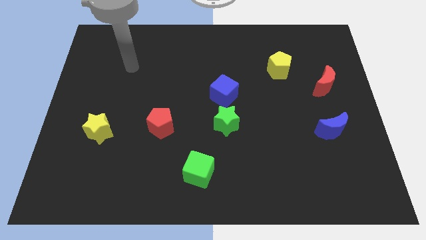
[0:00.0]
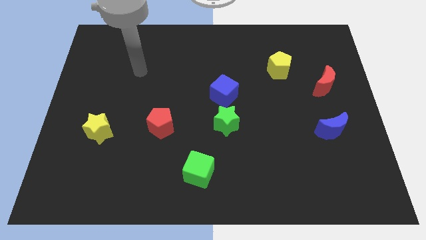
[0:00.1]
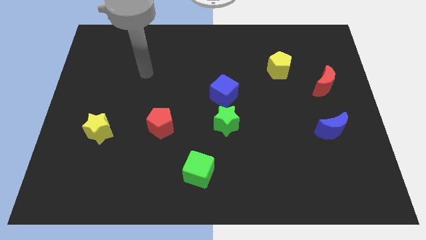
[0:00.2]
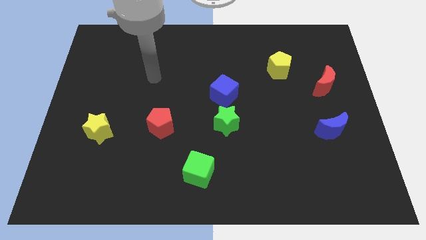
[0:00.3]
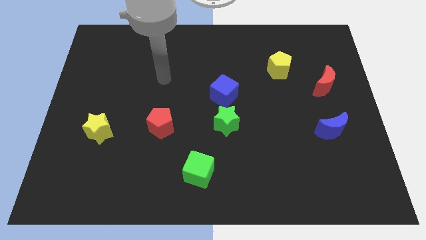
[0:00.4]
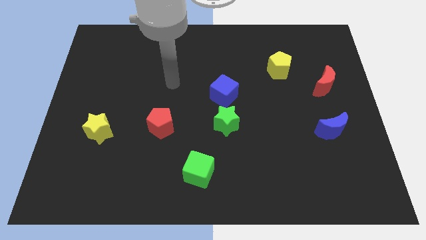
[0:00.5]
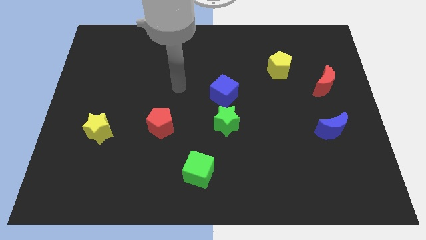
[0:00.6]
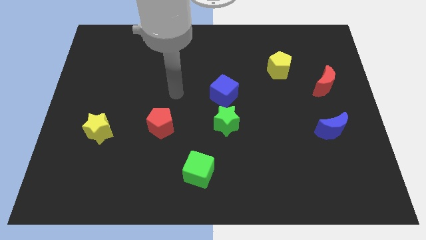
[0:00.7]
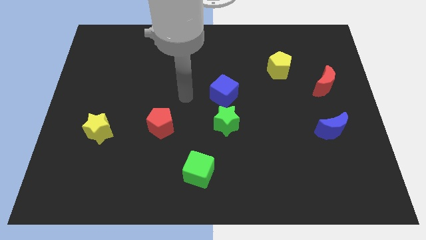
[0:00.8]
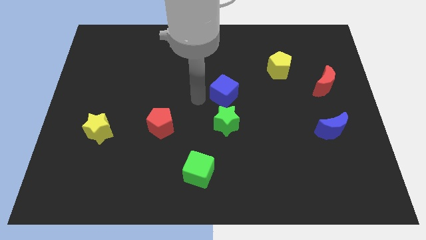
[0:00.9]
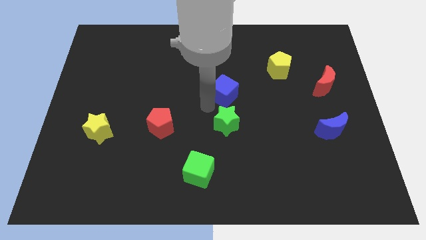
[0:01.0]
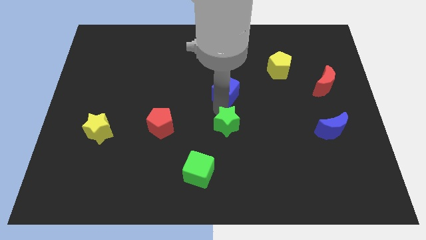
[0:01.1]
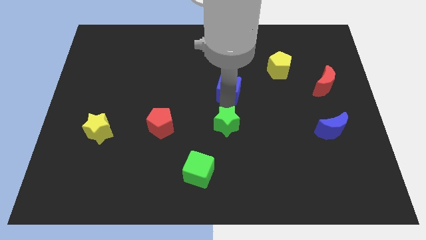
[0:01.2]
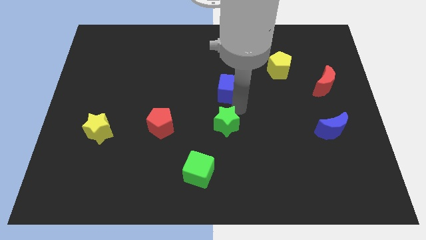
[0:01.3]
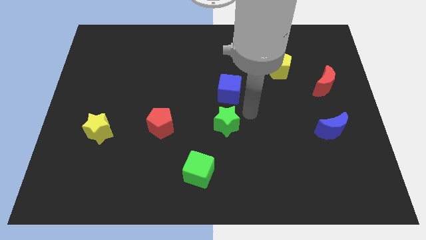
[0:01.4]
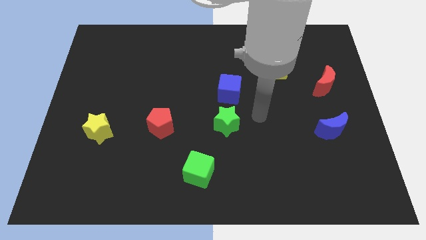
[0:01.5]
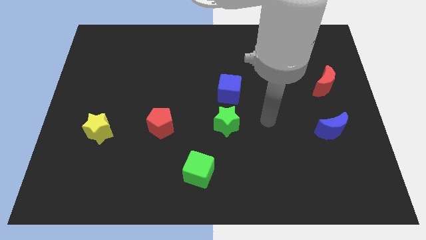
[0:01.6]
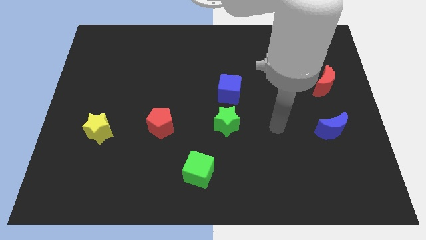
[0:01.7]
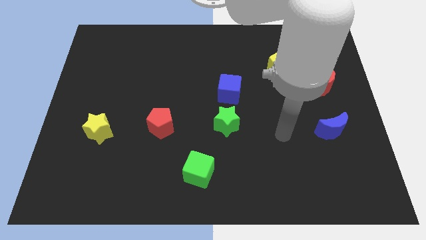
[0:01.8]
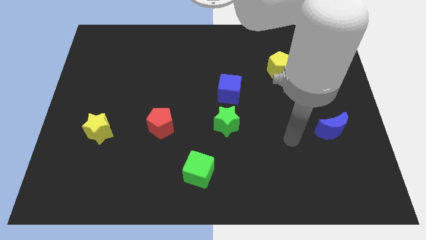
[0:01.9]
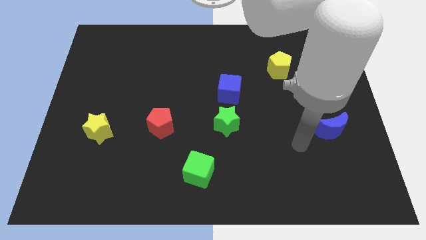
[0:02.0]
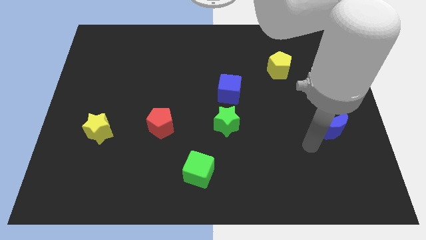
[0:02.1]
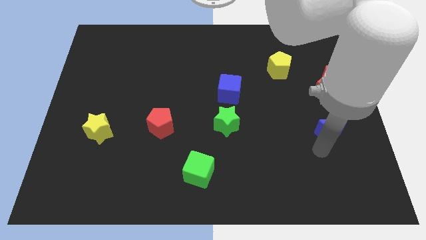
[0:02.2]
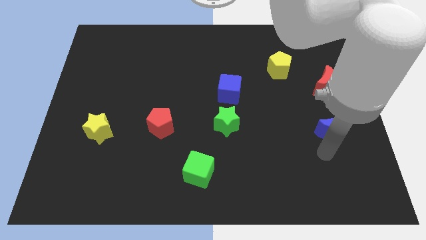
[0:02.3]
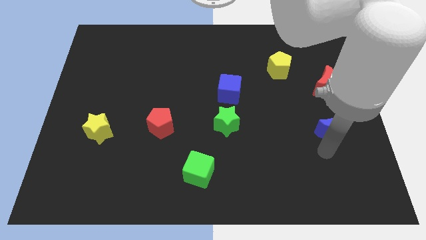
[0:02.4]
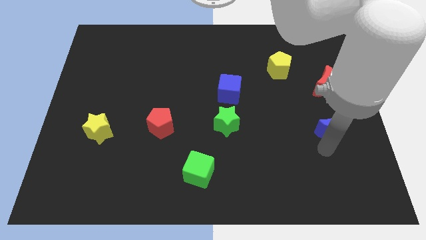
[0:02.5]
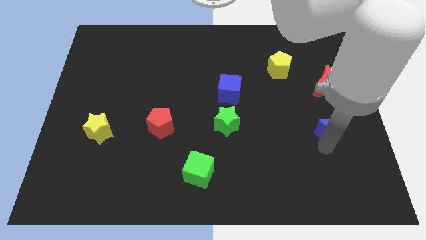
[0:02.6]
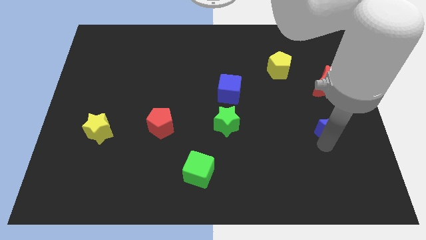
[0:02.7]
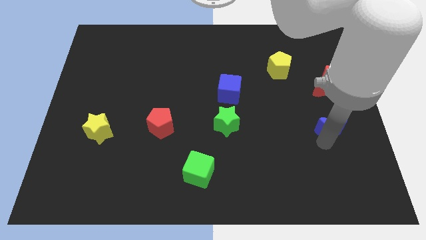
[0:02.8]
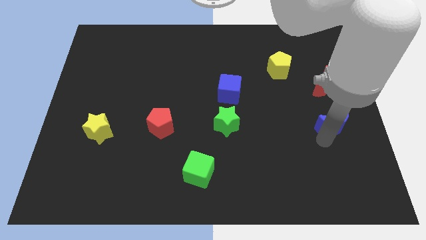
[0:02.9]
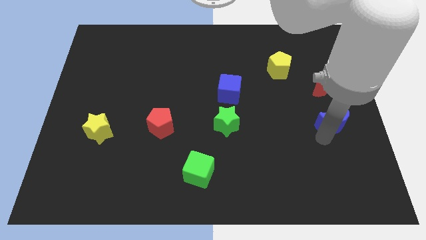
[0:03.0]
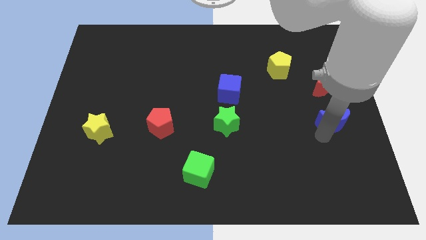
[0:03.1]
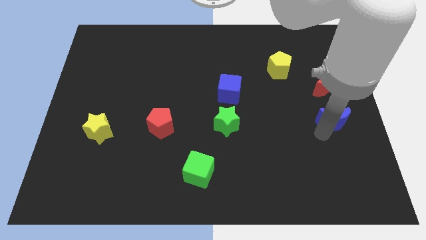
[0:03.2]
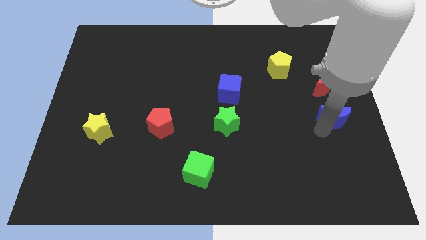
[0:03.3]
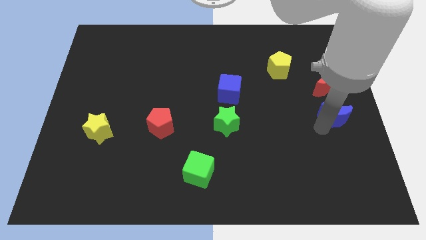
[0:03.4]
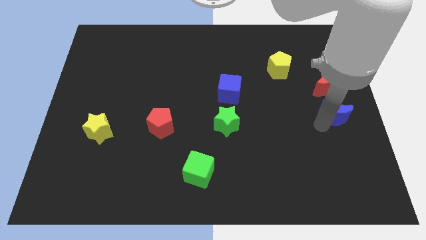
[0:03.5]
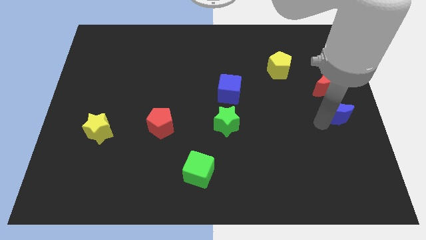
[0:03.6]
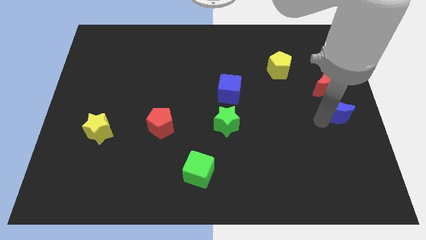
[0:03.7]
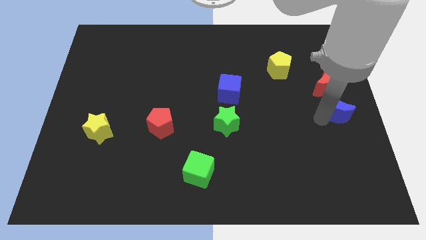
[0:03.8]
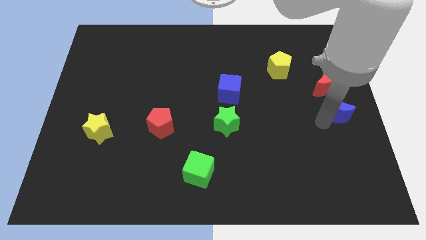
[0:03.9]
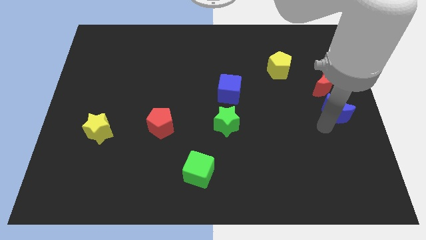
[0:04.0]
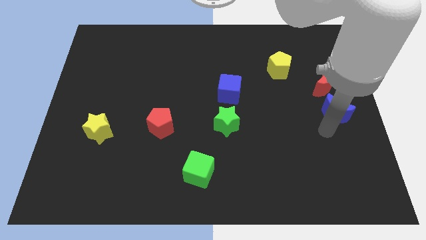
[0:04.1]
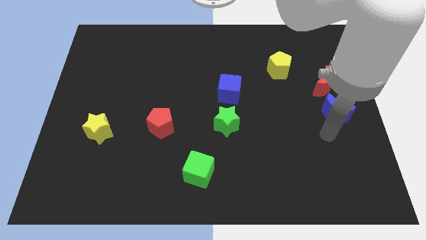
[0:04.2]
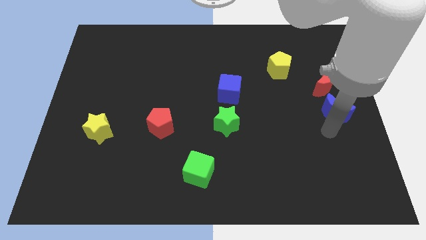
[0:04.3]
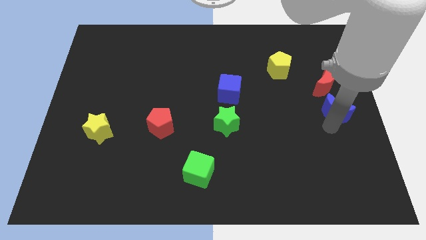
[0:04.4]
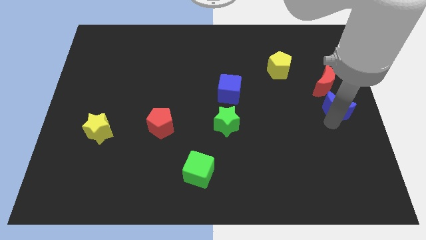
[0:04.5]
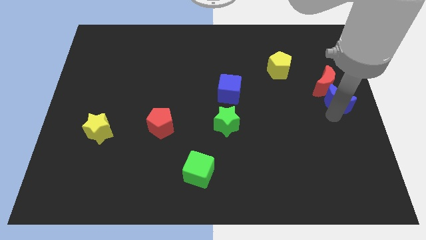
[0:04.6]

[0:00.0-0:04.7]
slide the blue moon up somewhat

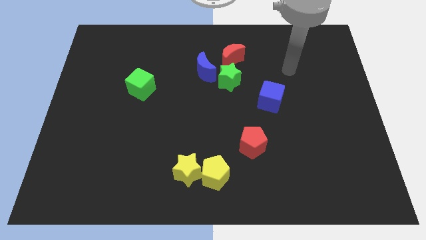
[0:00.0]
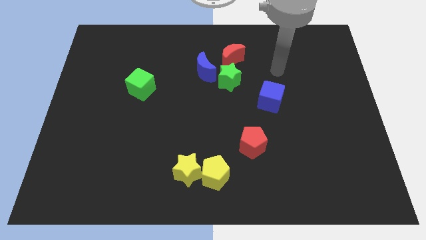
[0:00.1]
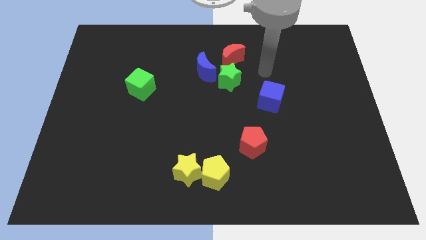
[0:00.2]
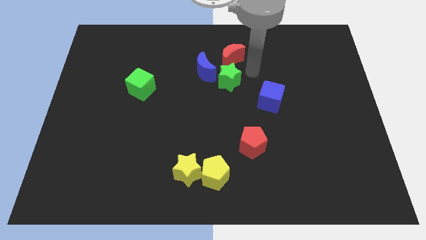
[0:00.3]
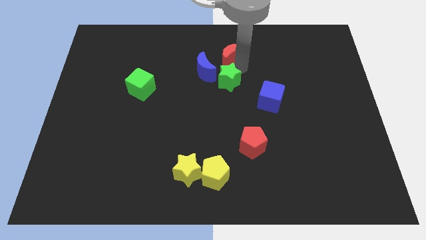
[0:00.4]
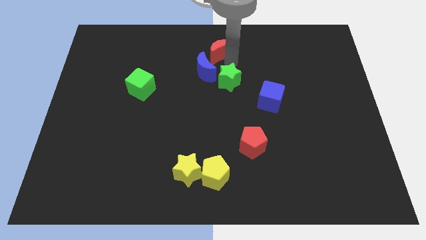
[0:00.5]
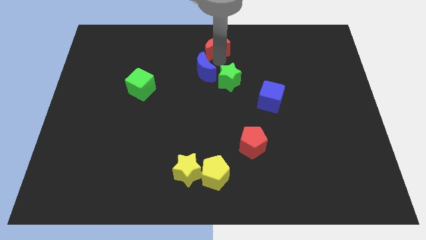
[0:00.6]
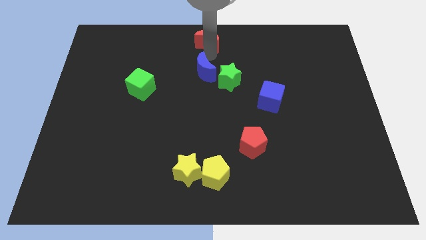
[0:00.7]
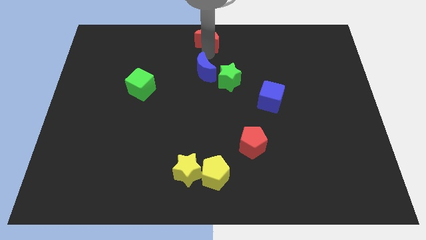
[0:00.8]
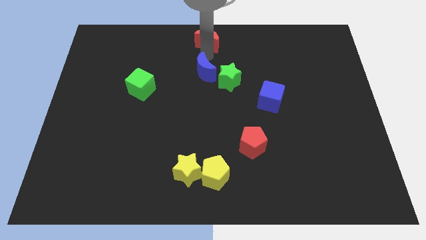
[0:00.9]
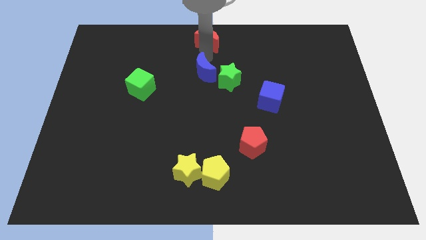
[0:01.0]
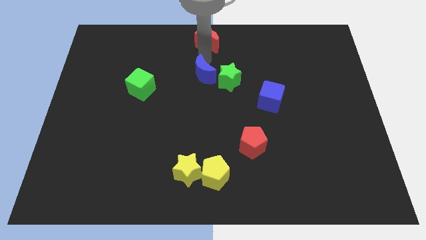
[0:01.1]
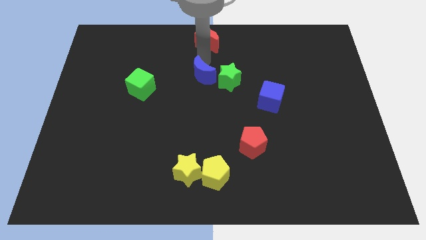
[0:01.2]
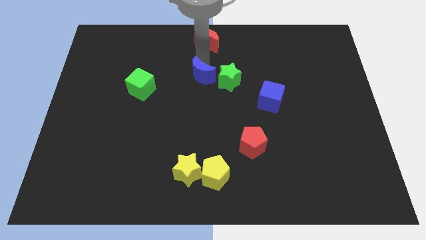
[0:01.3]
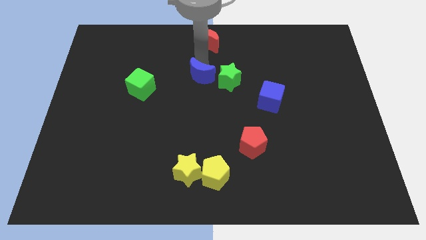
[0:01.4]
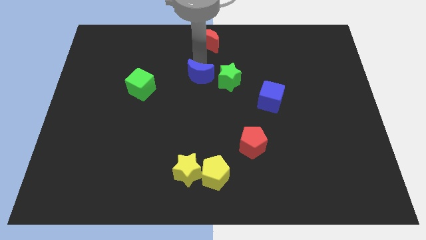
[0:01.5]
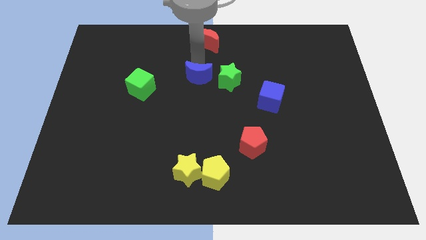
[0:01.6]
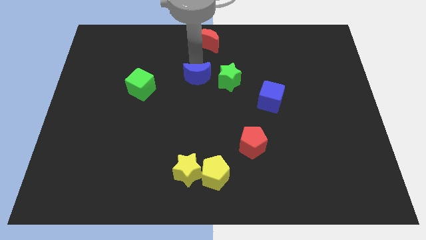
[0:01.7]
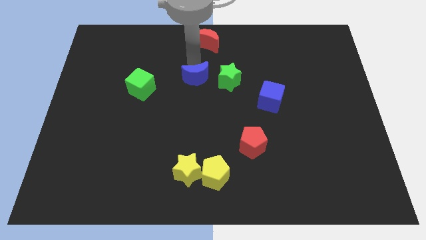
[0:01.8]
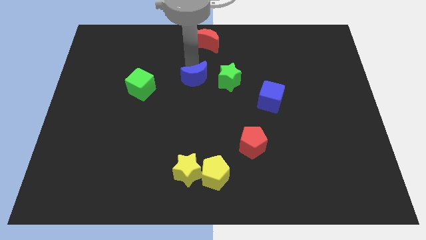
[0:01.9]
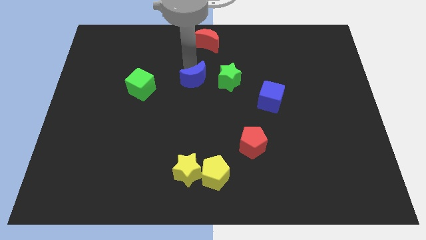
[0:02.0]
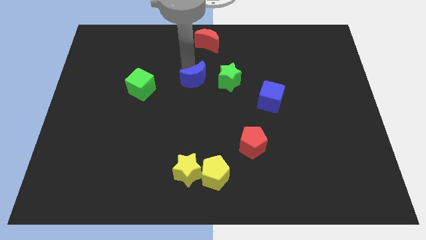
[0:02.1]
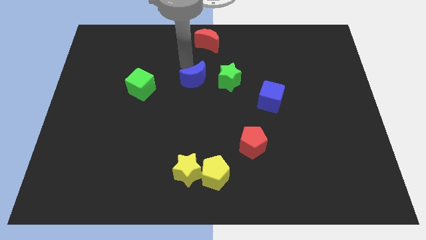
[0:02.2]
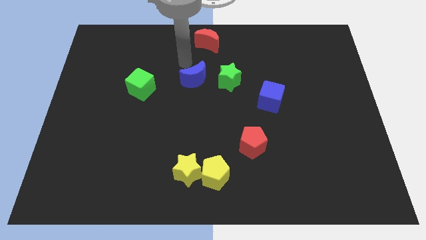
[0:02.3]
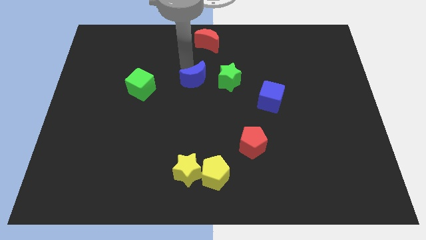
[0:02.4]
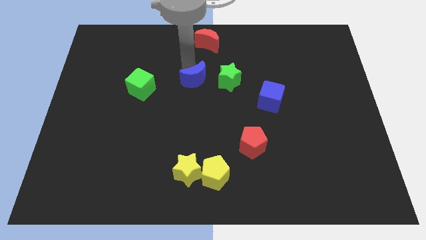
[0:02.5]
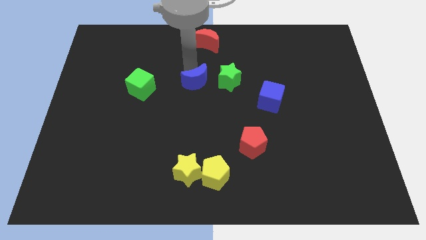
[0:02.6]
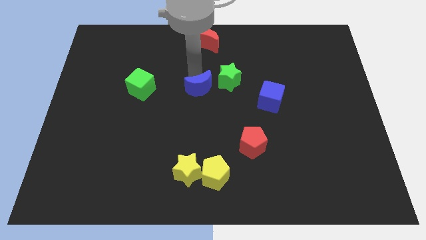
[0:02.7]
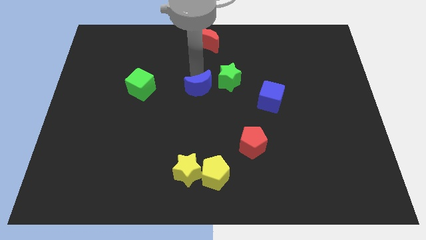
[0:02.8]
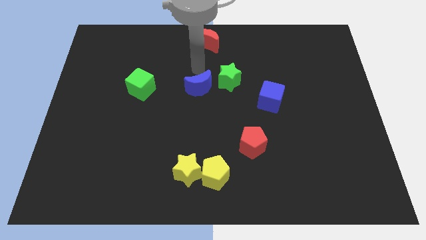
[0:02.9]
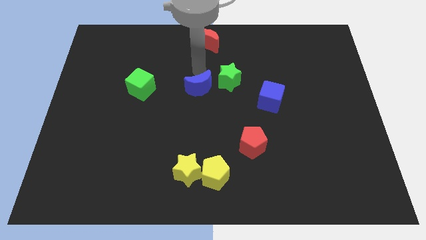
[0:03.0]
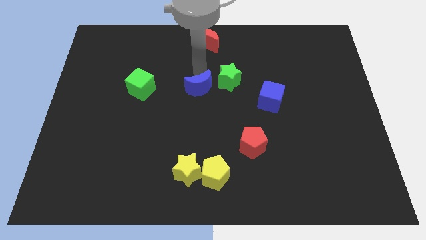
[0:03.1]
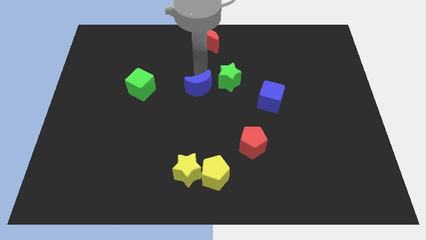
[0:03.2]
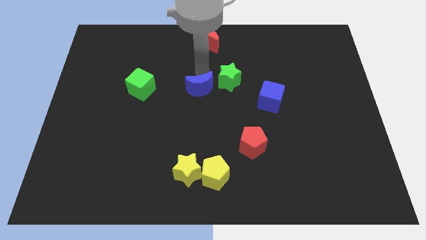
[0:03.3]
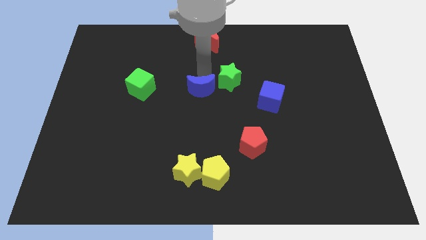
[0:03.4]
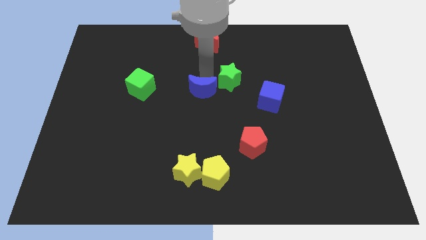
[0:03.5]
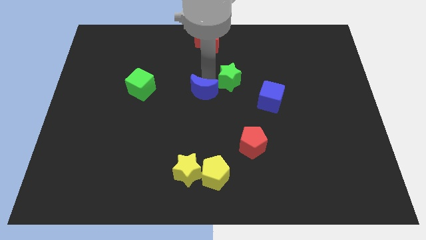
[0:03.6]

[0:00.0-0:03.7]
slide the blue moon somewhat downwards
